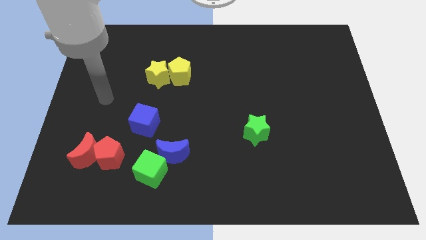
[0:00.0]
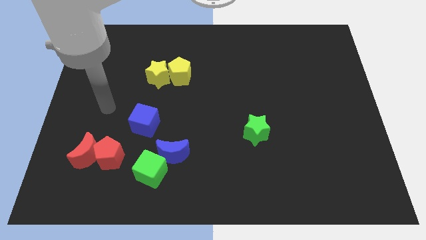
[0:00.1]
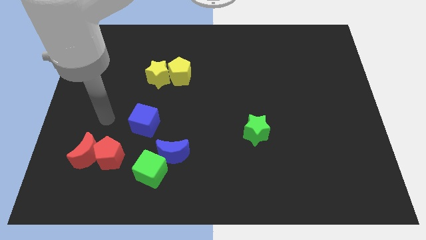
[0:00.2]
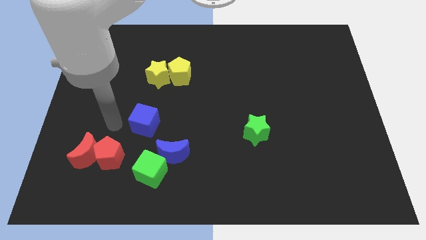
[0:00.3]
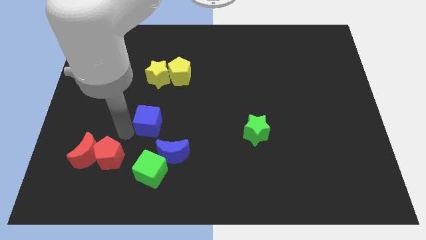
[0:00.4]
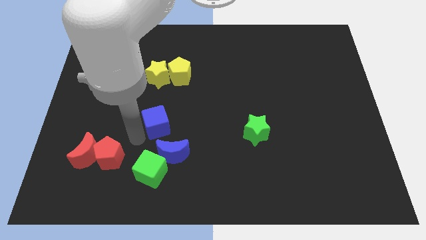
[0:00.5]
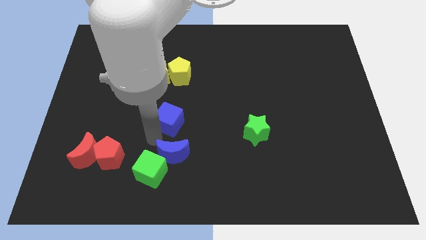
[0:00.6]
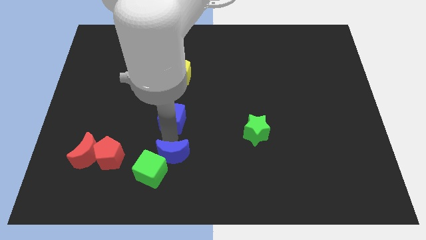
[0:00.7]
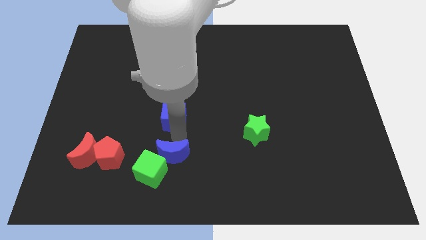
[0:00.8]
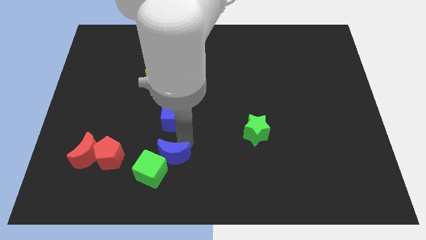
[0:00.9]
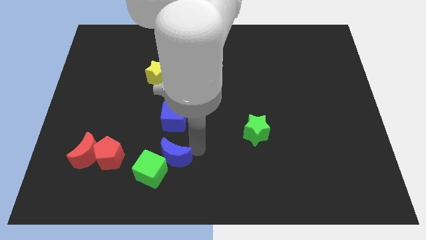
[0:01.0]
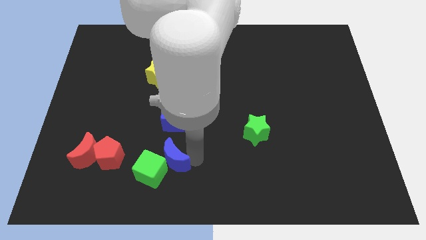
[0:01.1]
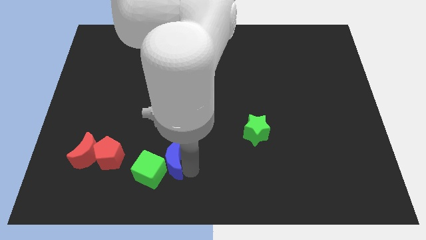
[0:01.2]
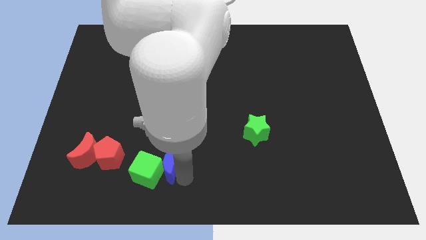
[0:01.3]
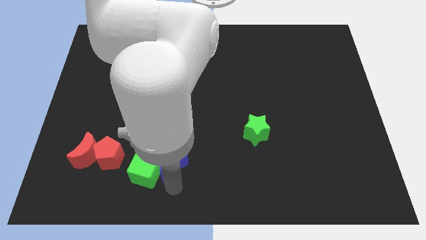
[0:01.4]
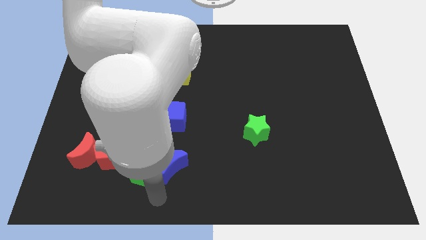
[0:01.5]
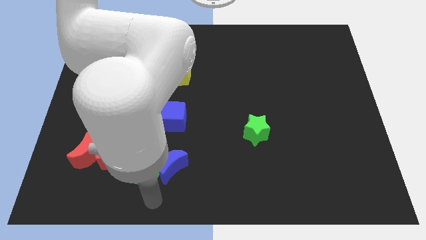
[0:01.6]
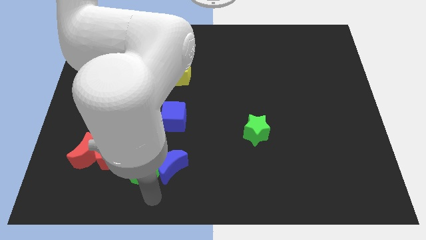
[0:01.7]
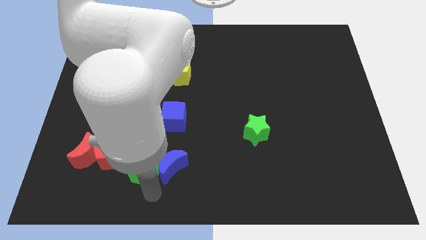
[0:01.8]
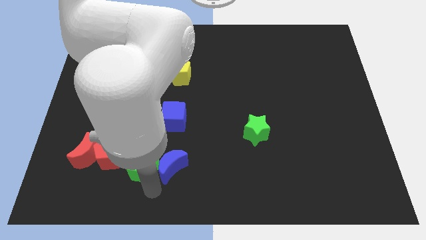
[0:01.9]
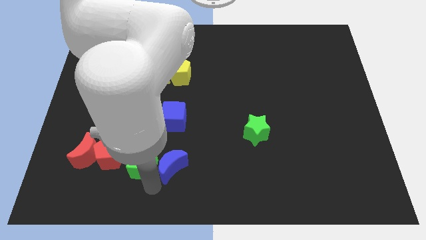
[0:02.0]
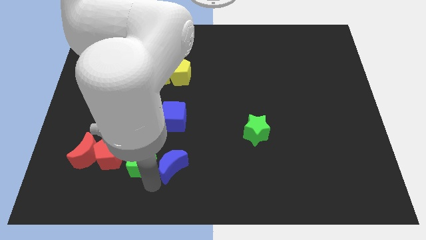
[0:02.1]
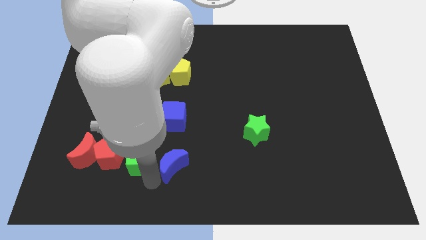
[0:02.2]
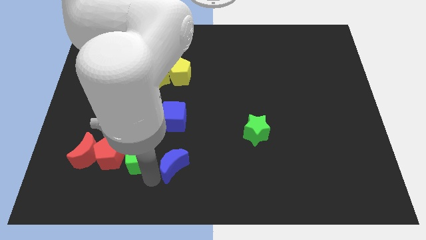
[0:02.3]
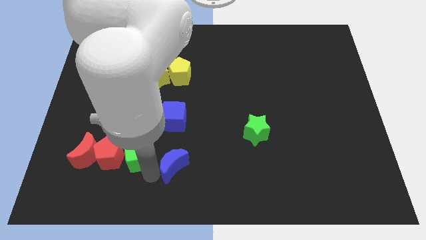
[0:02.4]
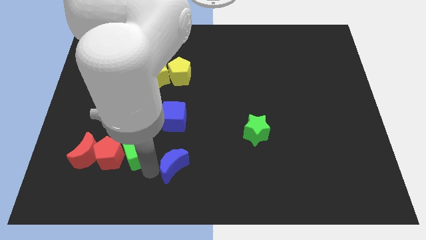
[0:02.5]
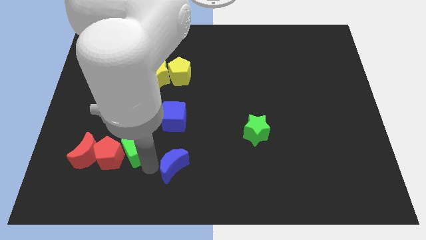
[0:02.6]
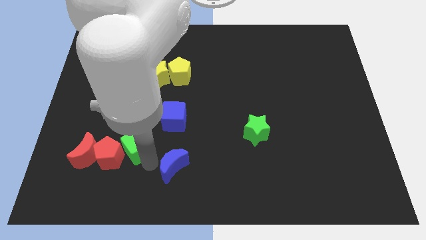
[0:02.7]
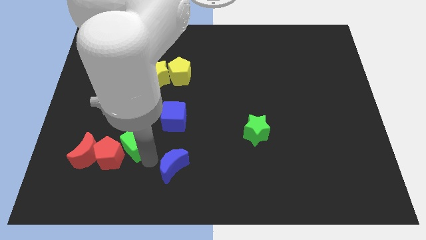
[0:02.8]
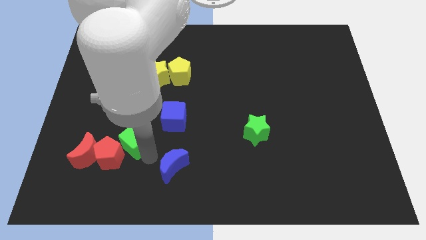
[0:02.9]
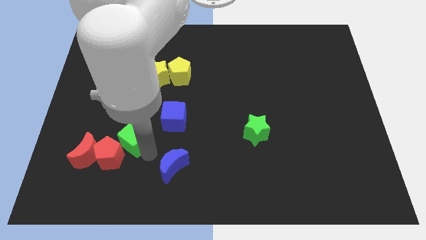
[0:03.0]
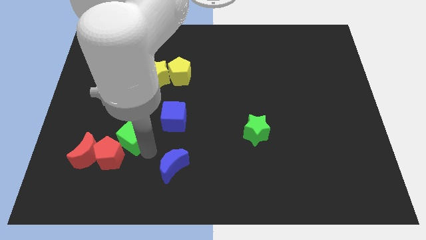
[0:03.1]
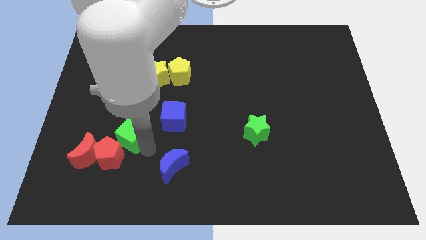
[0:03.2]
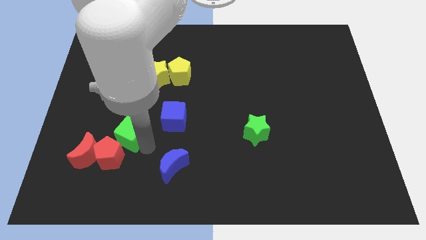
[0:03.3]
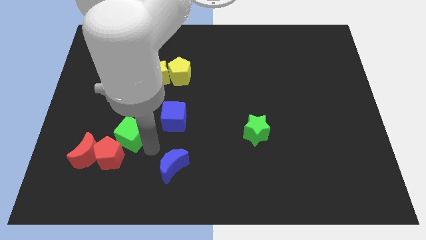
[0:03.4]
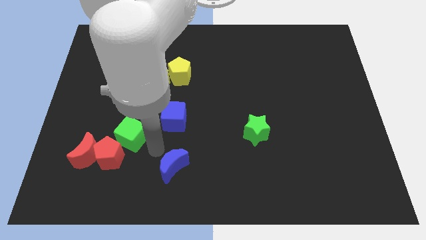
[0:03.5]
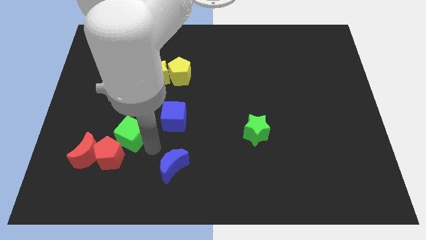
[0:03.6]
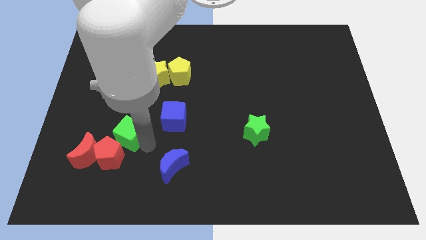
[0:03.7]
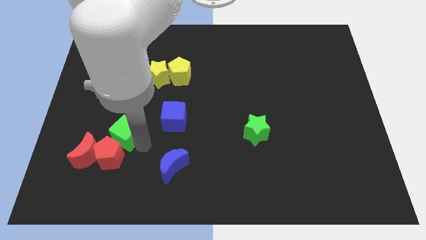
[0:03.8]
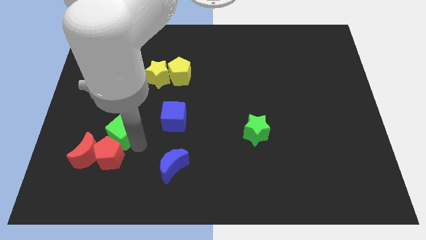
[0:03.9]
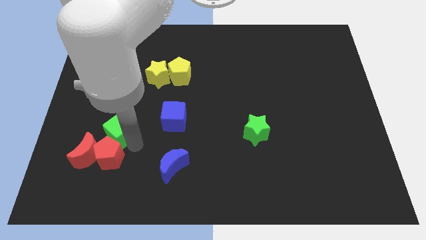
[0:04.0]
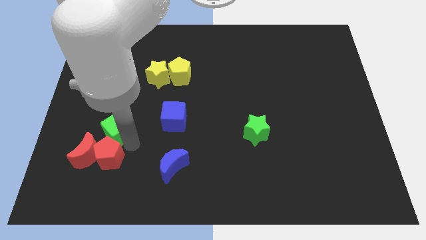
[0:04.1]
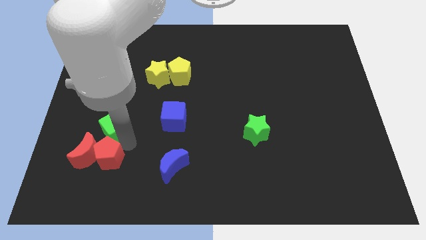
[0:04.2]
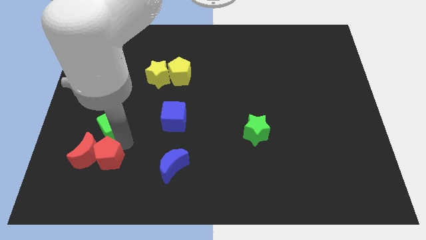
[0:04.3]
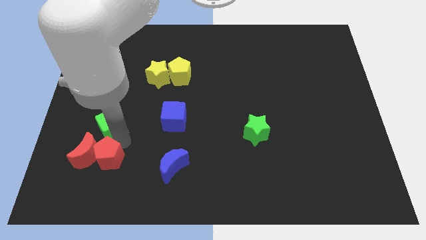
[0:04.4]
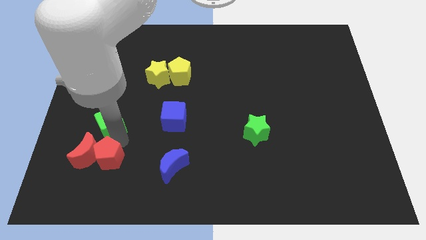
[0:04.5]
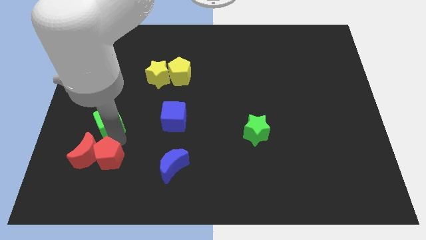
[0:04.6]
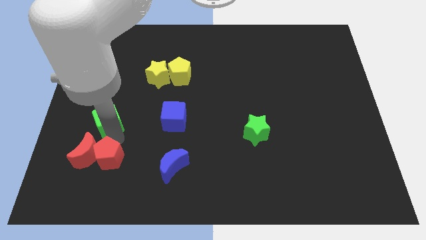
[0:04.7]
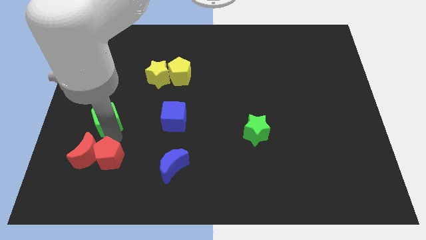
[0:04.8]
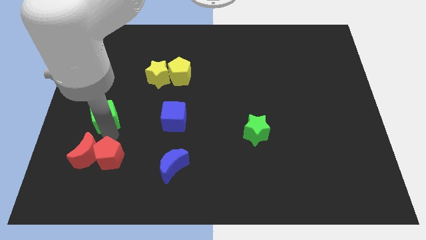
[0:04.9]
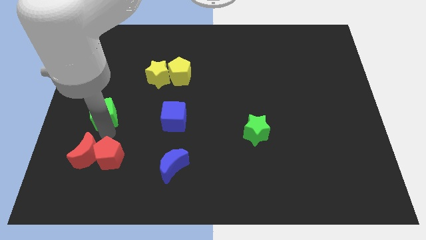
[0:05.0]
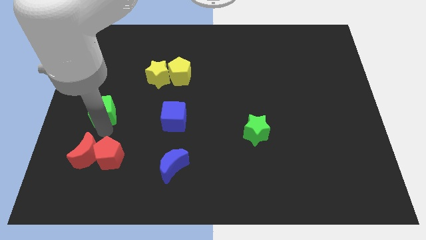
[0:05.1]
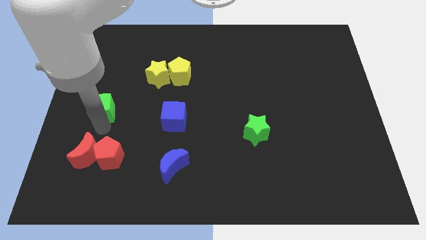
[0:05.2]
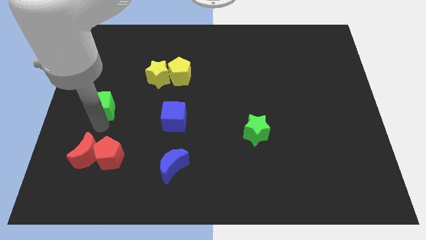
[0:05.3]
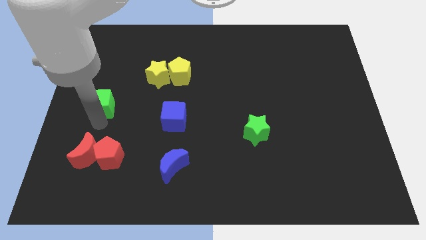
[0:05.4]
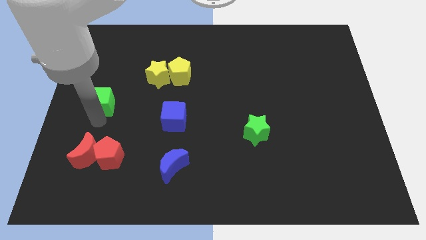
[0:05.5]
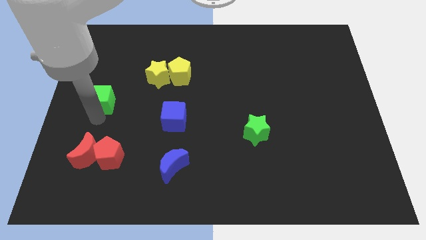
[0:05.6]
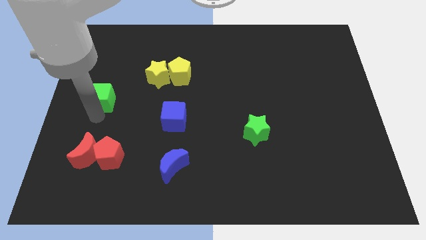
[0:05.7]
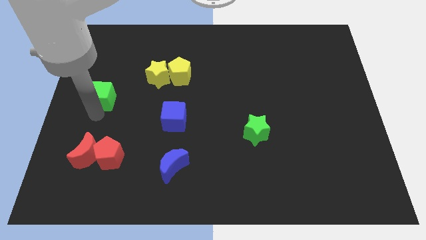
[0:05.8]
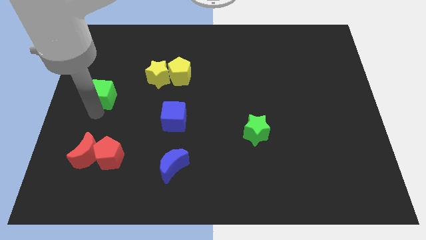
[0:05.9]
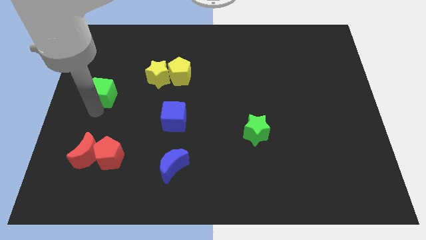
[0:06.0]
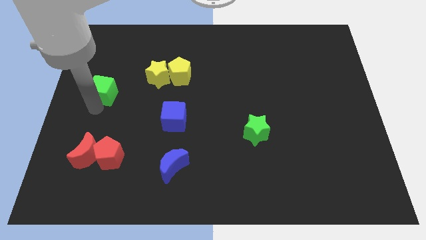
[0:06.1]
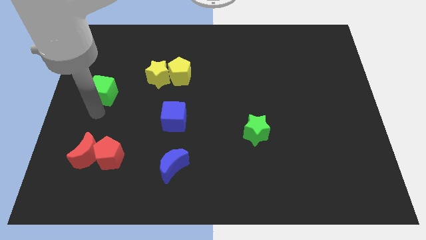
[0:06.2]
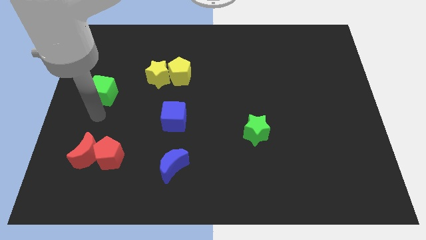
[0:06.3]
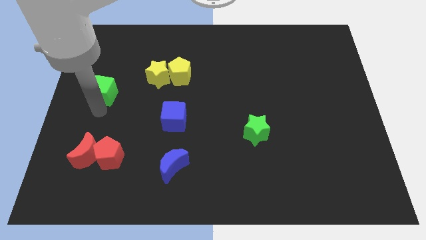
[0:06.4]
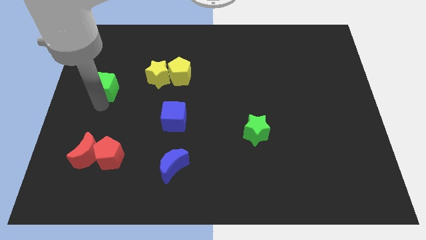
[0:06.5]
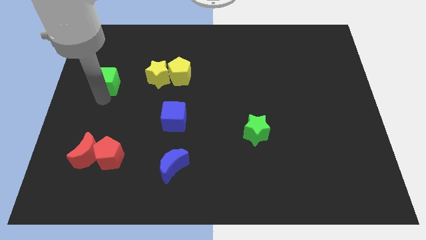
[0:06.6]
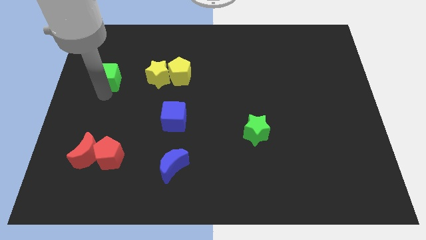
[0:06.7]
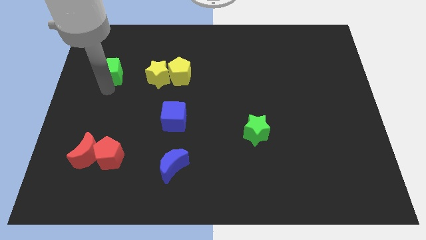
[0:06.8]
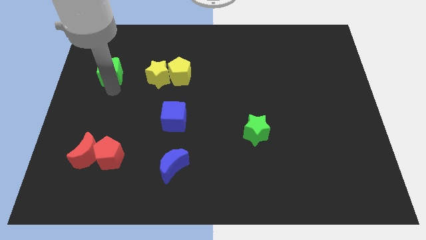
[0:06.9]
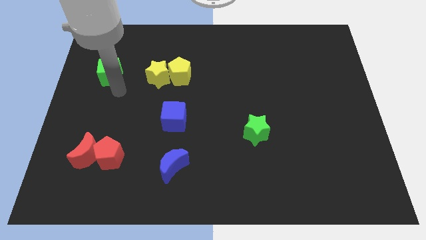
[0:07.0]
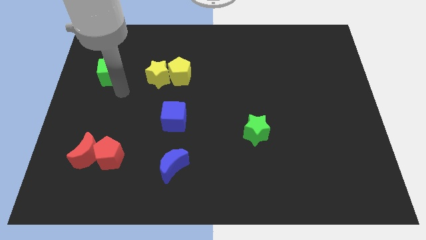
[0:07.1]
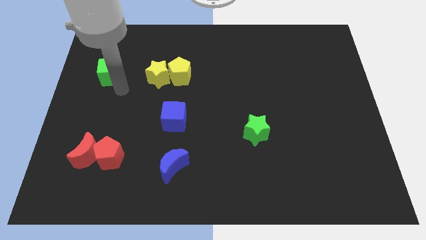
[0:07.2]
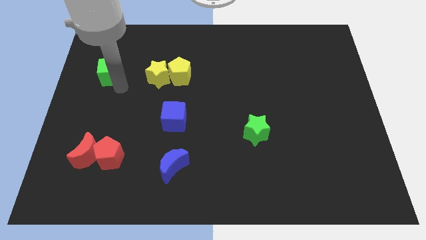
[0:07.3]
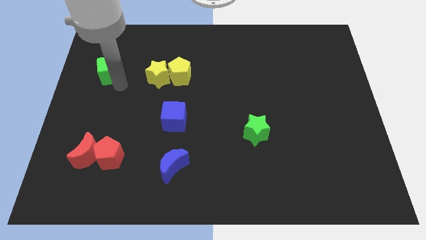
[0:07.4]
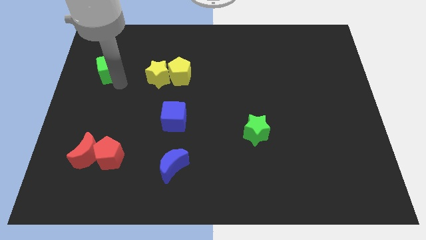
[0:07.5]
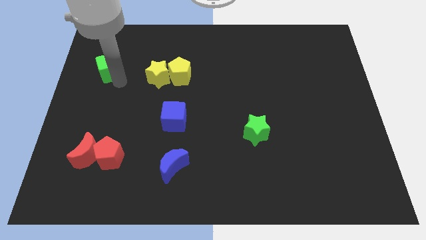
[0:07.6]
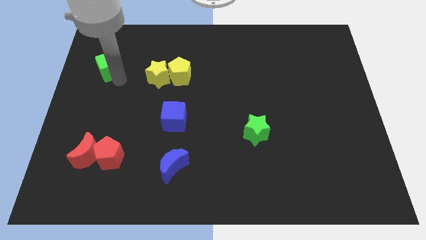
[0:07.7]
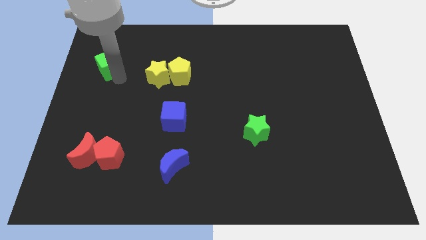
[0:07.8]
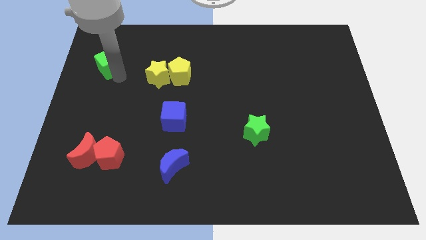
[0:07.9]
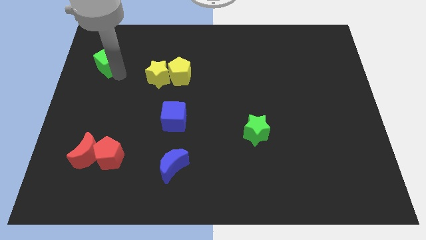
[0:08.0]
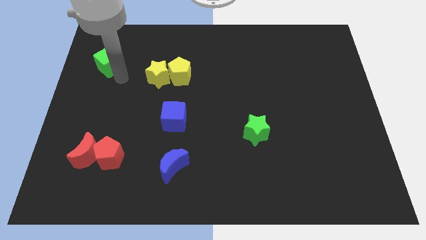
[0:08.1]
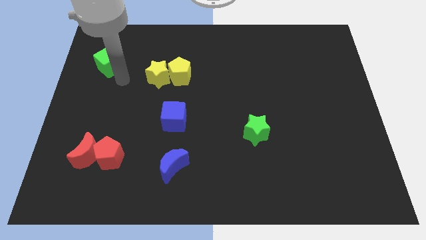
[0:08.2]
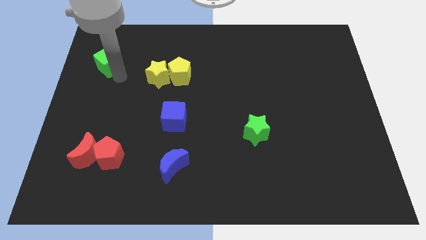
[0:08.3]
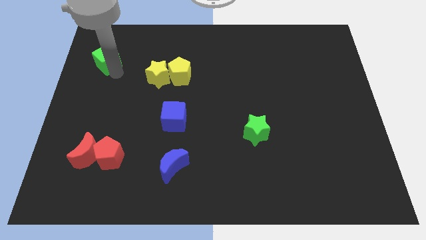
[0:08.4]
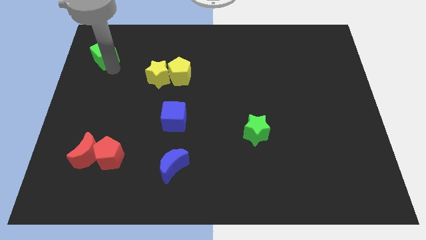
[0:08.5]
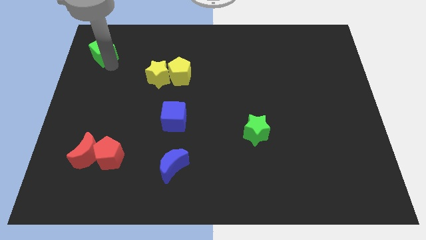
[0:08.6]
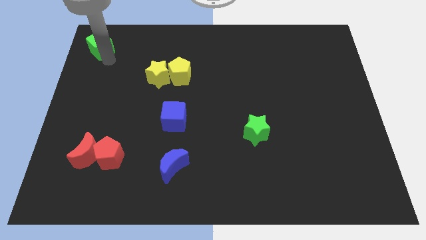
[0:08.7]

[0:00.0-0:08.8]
slide the green cube to the top left
